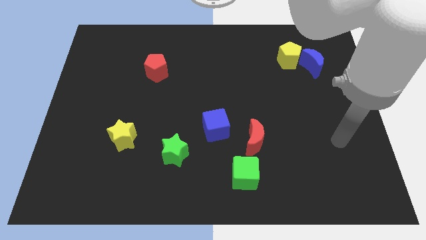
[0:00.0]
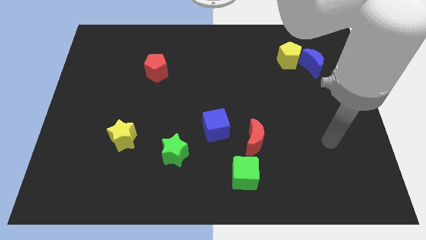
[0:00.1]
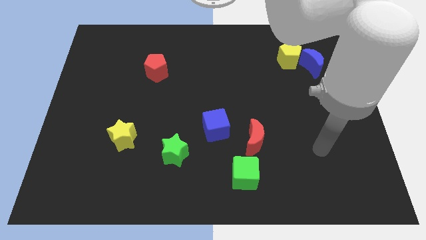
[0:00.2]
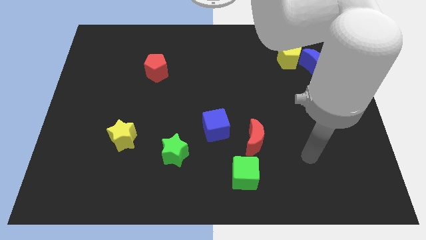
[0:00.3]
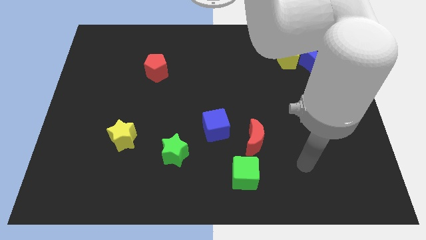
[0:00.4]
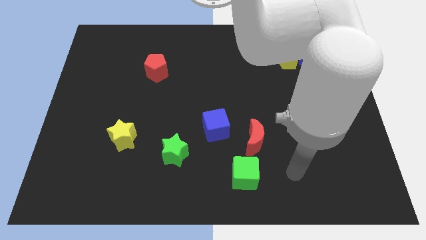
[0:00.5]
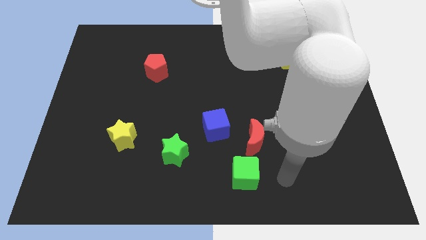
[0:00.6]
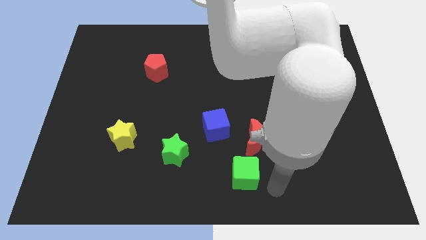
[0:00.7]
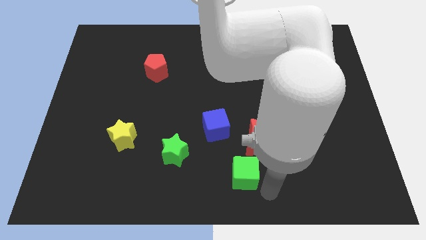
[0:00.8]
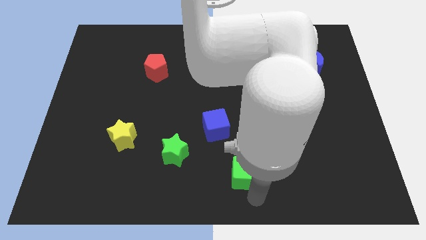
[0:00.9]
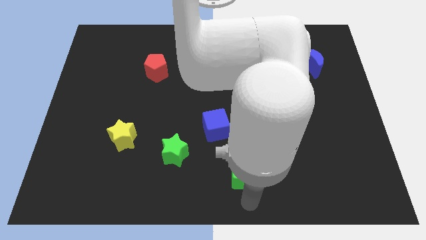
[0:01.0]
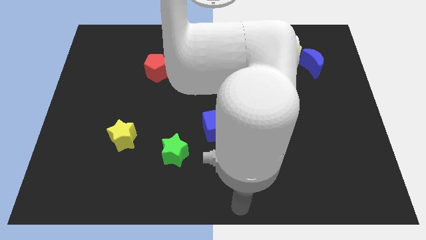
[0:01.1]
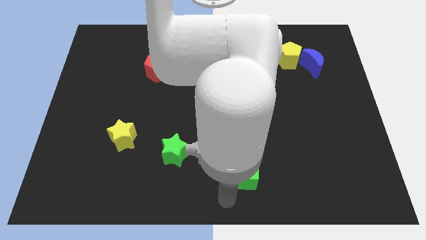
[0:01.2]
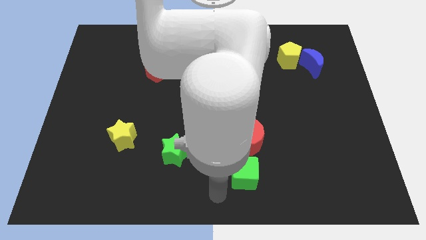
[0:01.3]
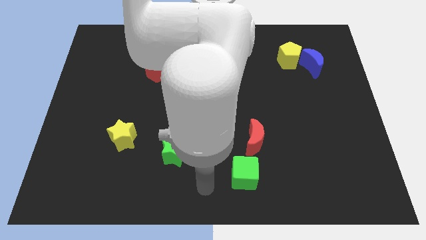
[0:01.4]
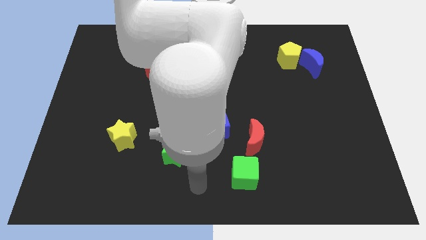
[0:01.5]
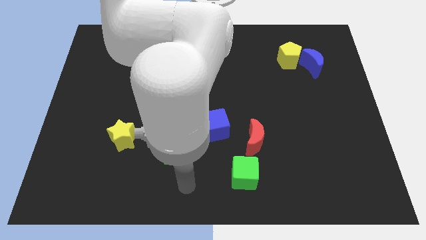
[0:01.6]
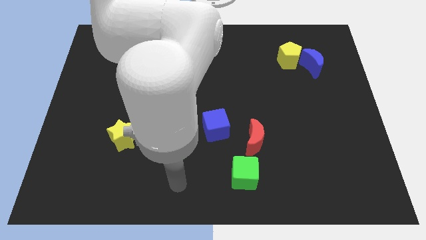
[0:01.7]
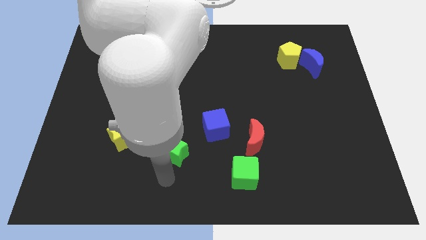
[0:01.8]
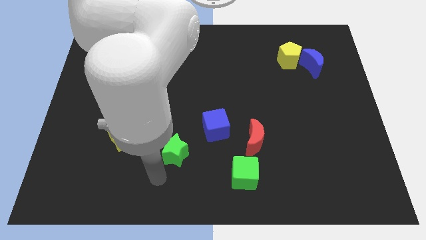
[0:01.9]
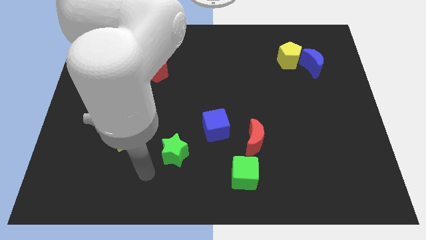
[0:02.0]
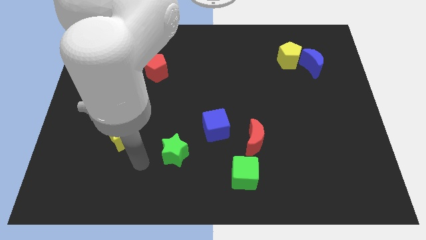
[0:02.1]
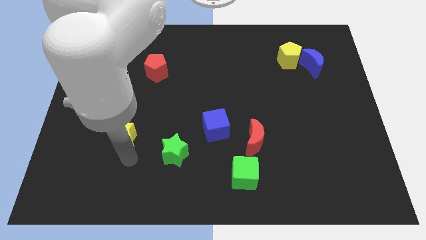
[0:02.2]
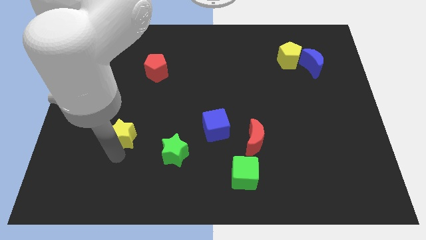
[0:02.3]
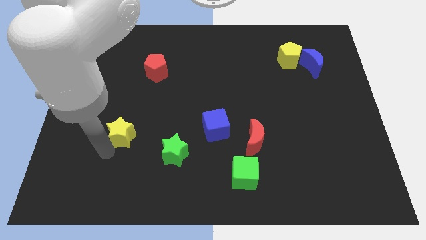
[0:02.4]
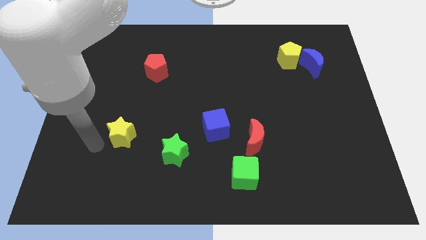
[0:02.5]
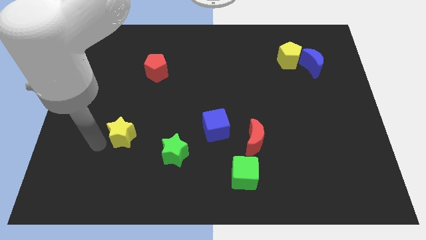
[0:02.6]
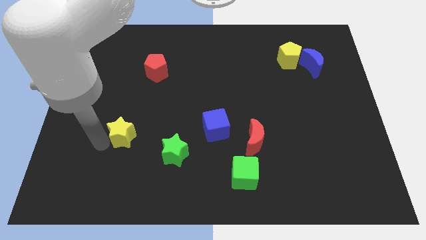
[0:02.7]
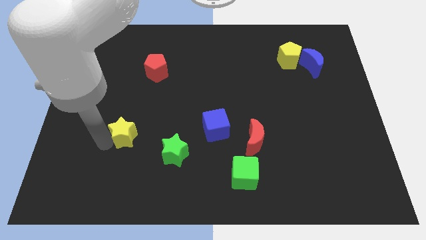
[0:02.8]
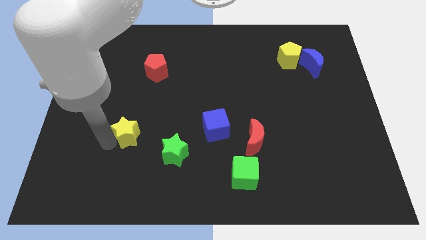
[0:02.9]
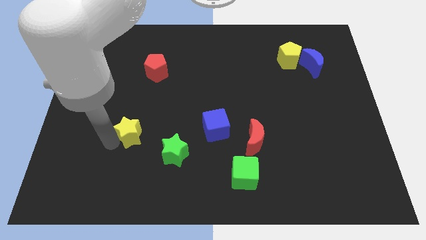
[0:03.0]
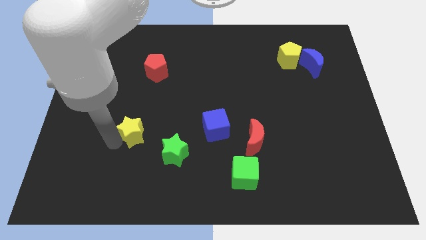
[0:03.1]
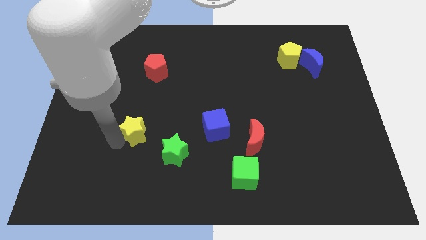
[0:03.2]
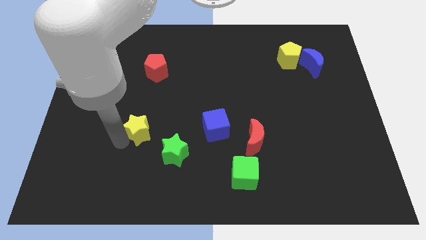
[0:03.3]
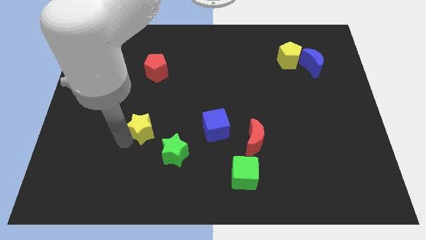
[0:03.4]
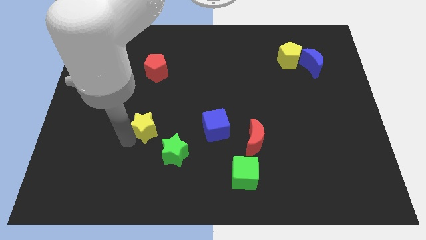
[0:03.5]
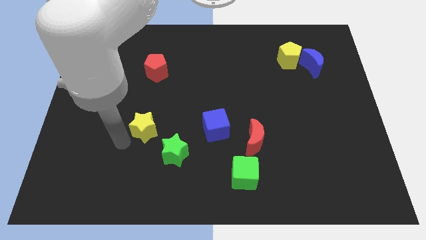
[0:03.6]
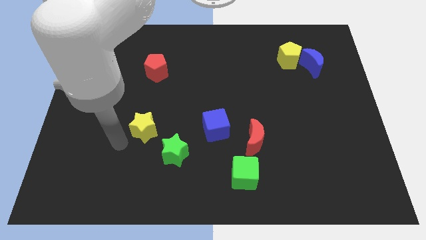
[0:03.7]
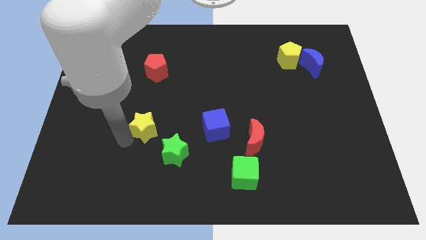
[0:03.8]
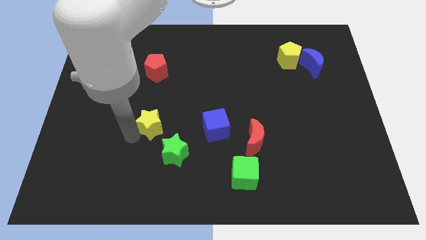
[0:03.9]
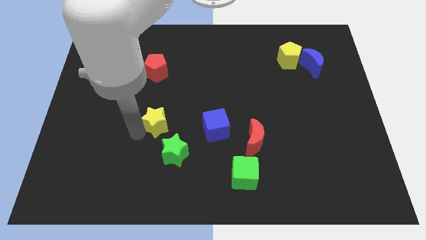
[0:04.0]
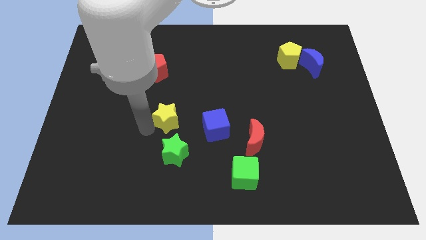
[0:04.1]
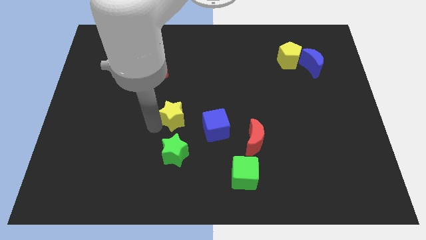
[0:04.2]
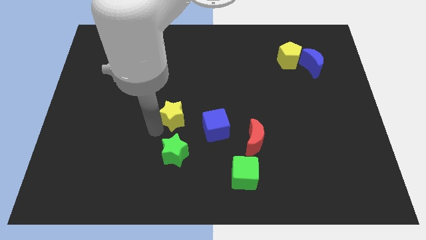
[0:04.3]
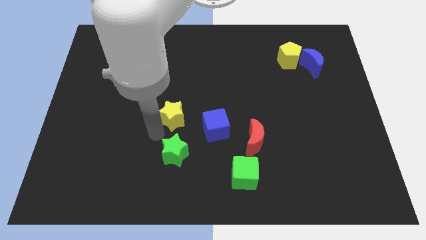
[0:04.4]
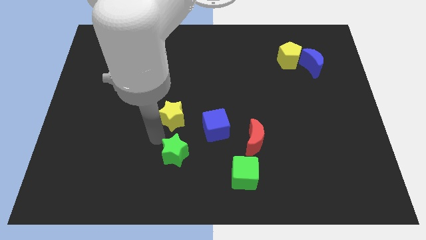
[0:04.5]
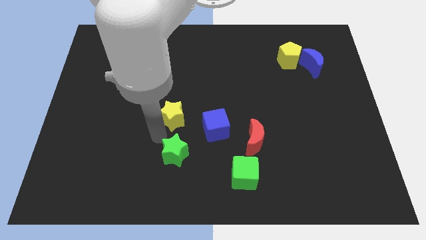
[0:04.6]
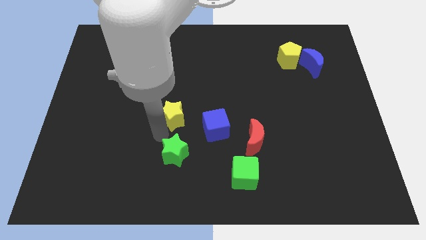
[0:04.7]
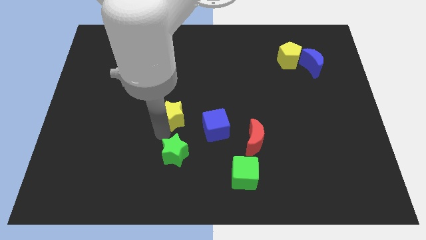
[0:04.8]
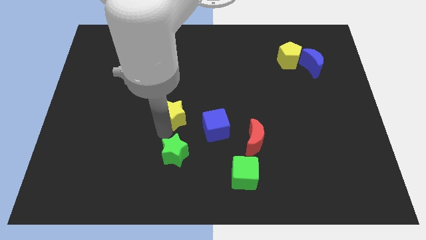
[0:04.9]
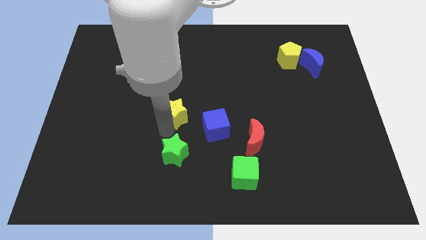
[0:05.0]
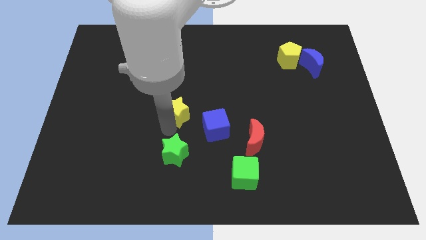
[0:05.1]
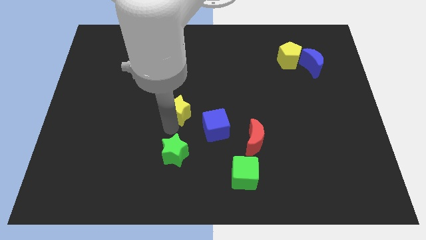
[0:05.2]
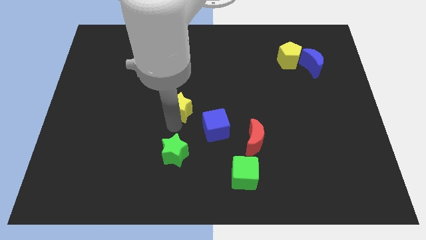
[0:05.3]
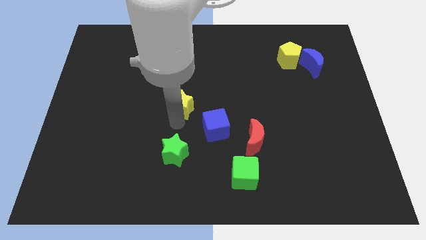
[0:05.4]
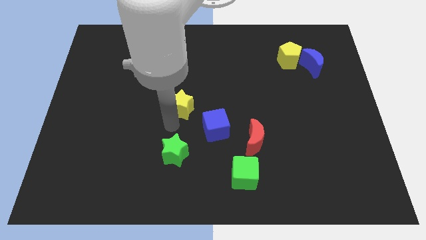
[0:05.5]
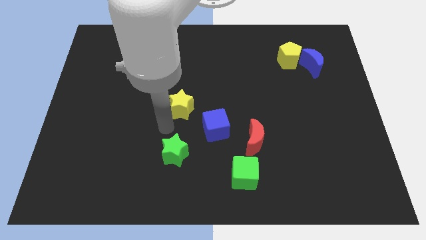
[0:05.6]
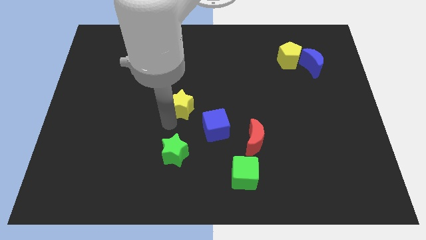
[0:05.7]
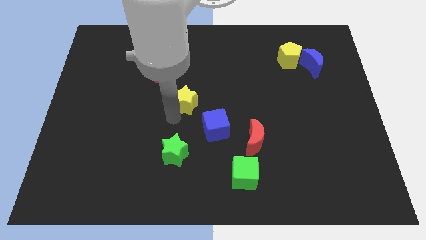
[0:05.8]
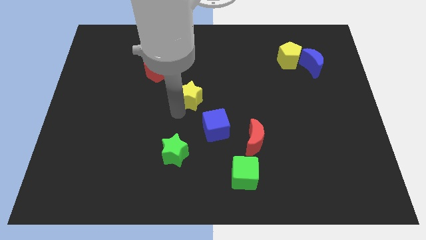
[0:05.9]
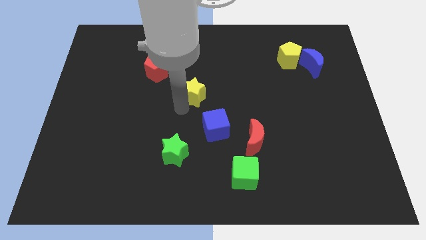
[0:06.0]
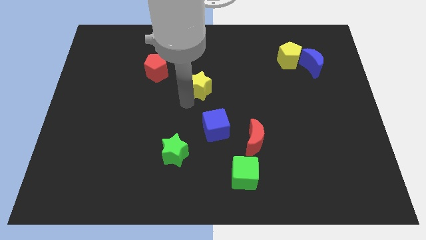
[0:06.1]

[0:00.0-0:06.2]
slide the yellow star upwards and then to the right

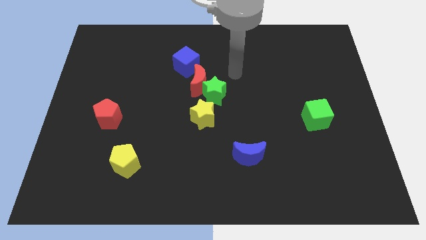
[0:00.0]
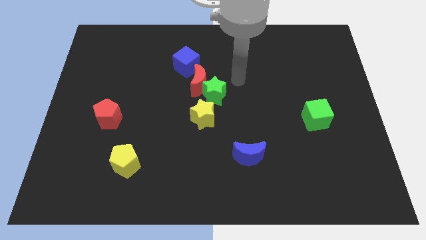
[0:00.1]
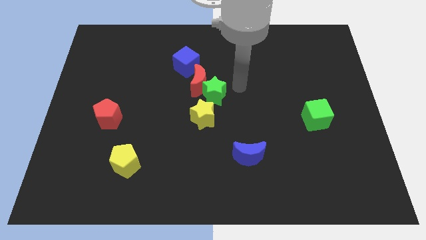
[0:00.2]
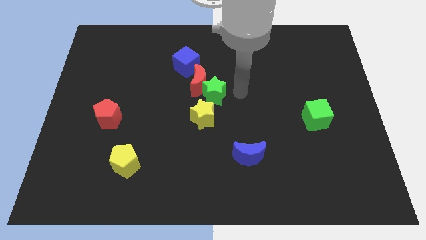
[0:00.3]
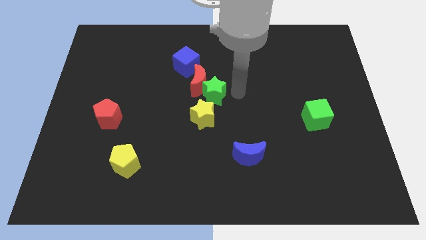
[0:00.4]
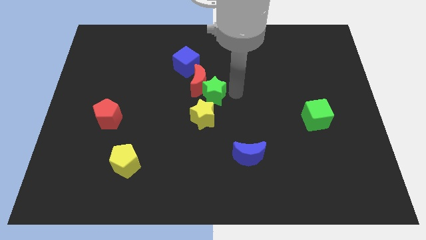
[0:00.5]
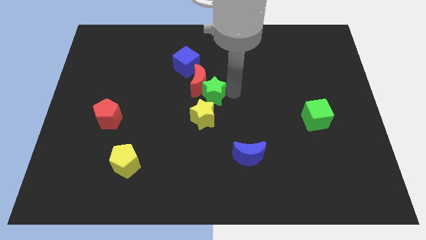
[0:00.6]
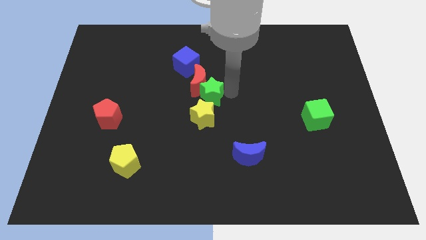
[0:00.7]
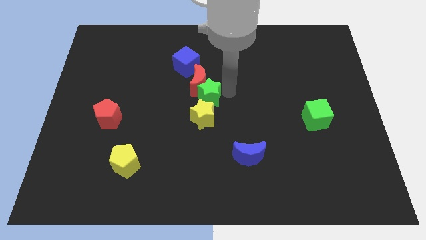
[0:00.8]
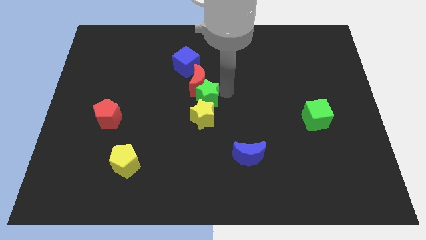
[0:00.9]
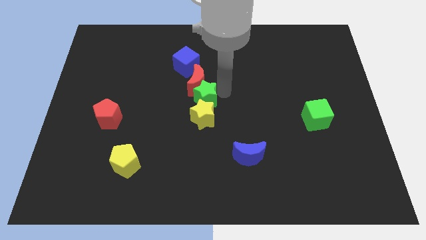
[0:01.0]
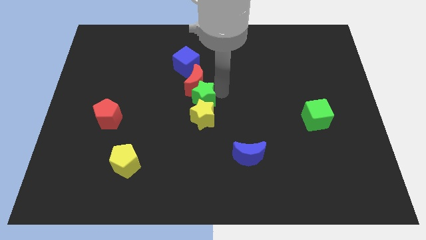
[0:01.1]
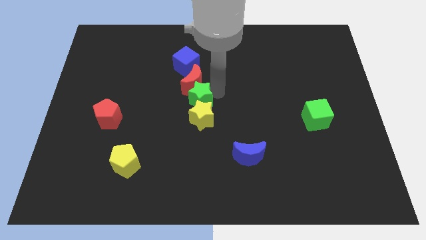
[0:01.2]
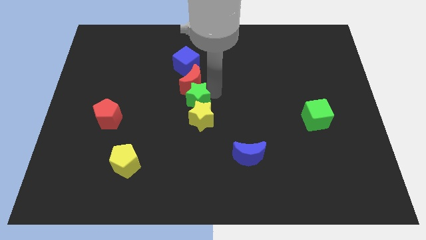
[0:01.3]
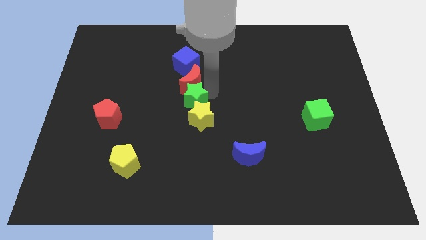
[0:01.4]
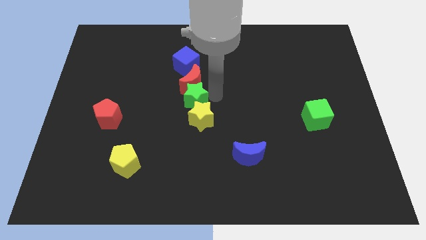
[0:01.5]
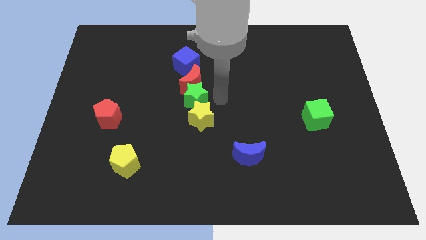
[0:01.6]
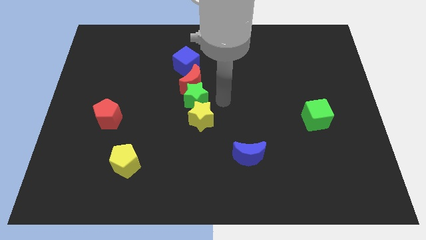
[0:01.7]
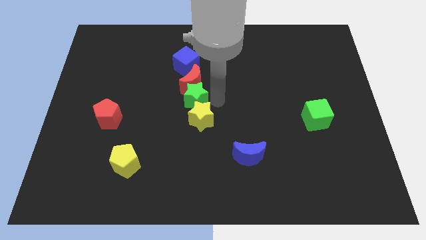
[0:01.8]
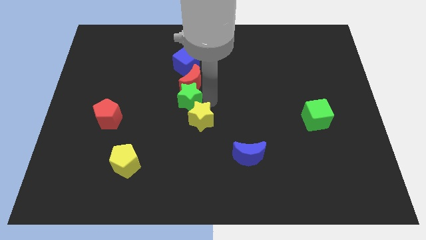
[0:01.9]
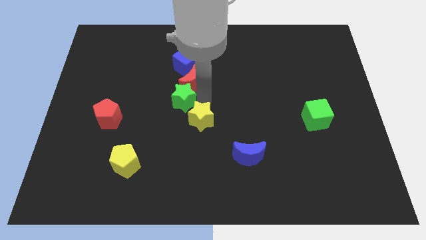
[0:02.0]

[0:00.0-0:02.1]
slightly slide the green star to the left
